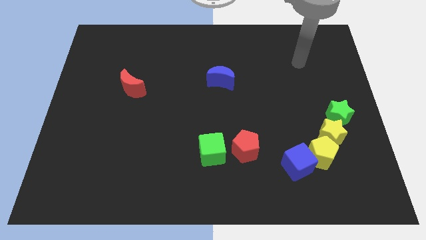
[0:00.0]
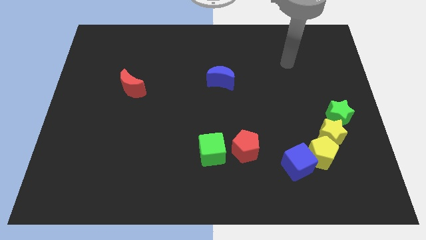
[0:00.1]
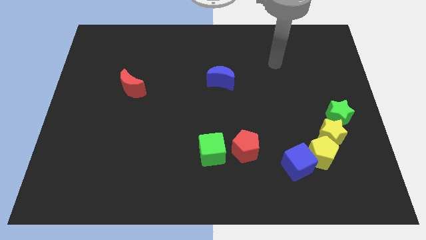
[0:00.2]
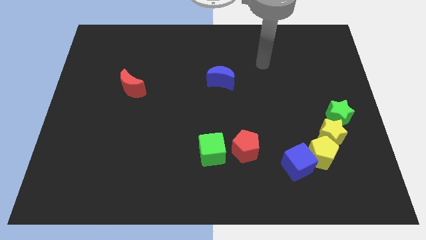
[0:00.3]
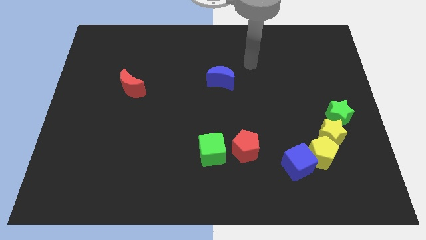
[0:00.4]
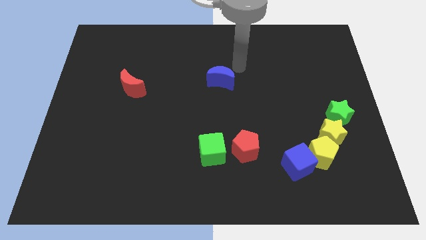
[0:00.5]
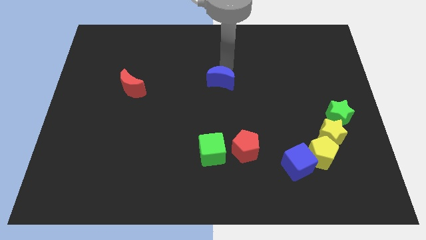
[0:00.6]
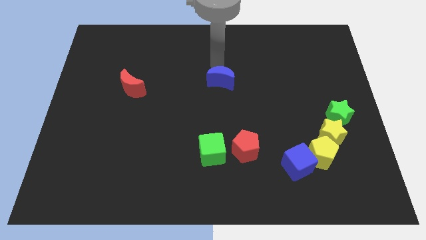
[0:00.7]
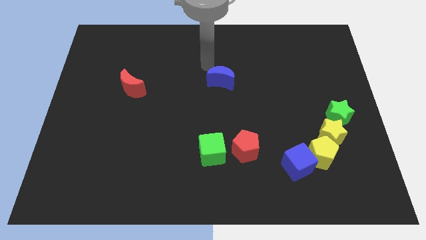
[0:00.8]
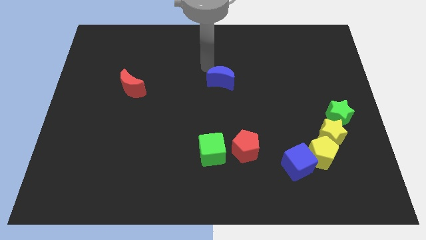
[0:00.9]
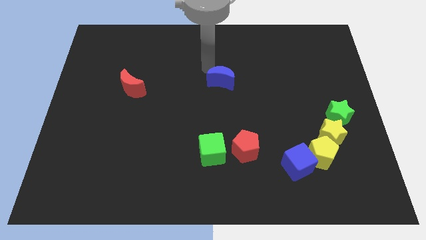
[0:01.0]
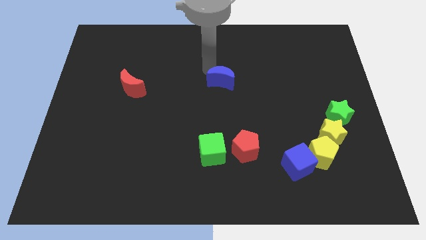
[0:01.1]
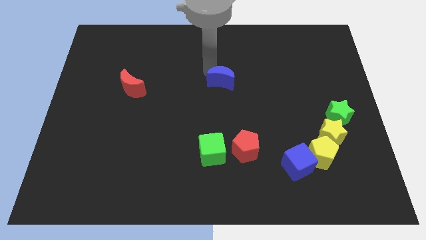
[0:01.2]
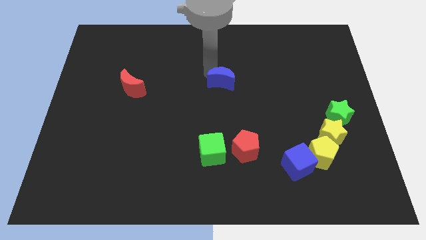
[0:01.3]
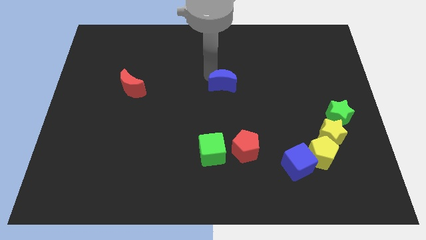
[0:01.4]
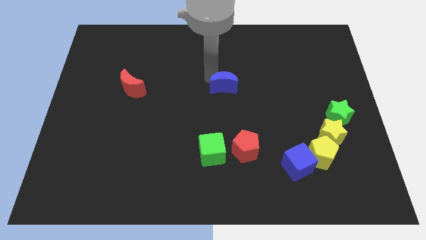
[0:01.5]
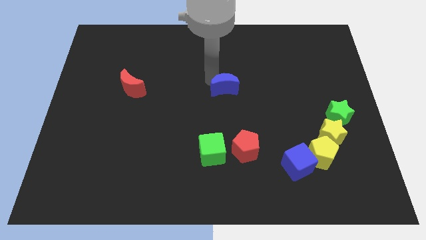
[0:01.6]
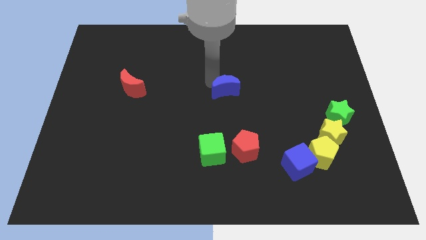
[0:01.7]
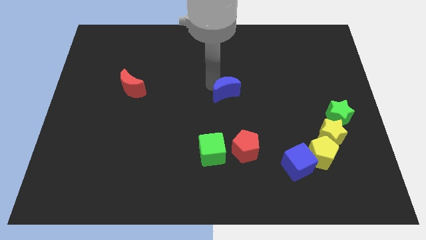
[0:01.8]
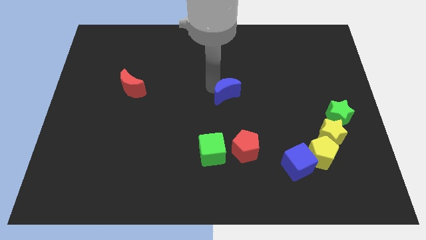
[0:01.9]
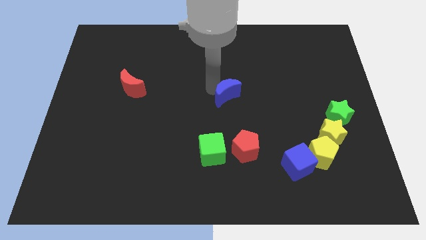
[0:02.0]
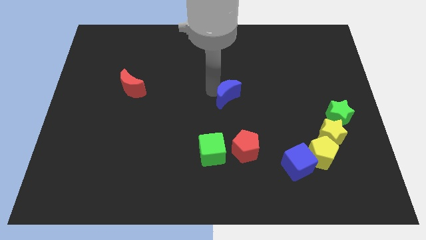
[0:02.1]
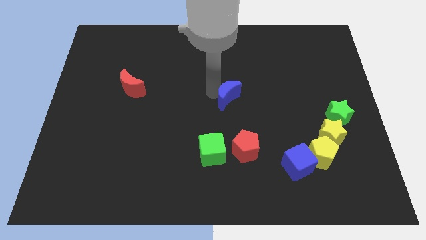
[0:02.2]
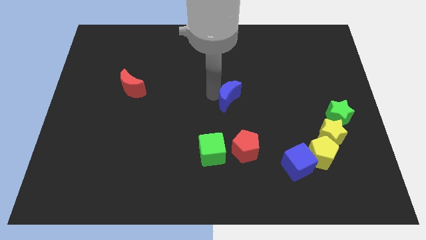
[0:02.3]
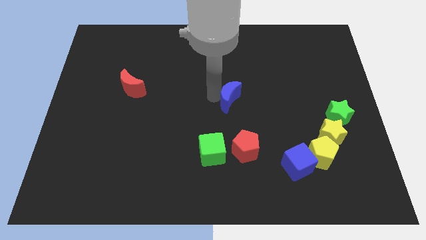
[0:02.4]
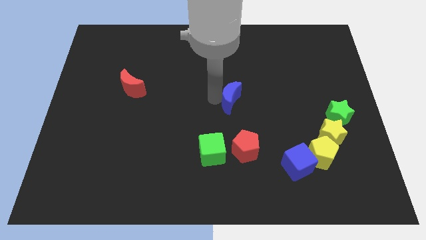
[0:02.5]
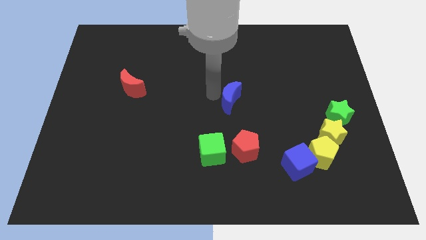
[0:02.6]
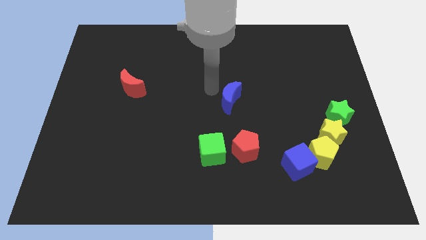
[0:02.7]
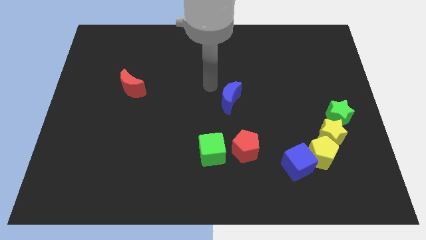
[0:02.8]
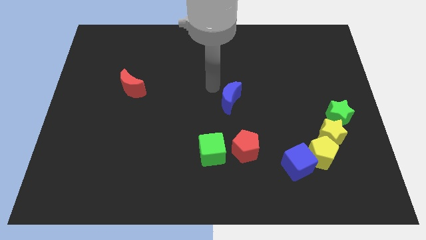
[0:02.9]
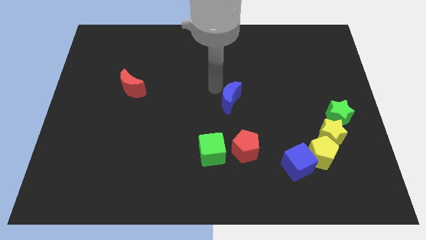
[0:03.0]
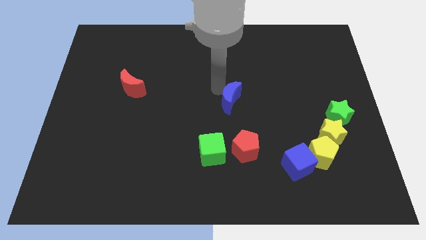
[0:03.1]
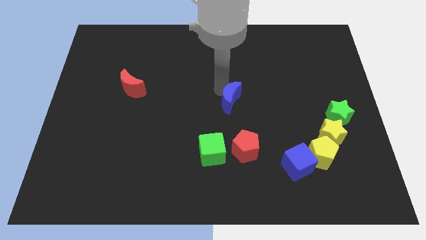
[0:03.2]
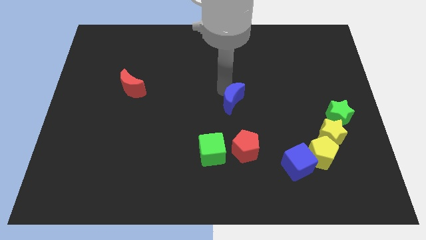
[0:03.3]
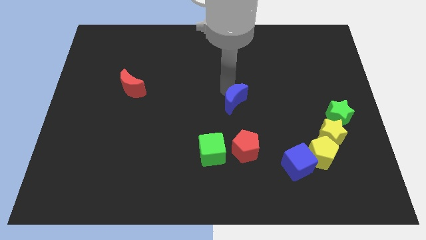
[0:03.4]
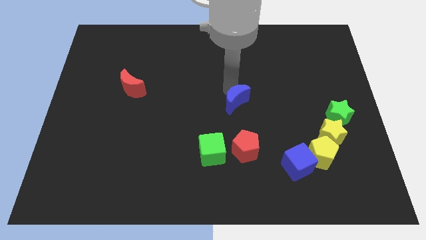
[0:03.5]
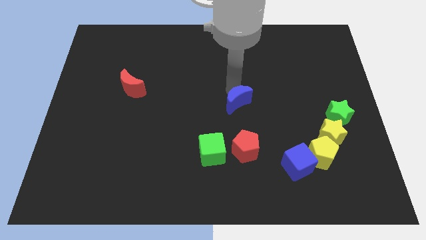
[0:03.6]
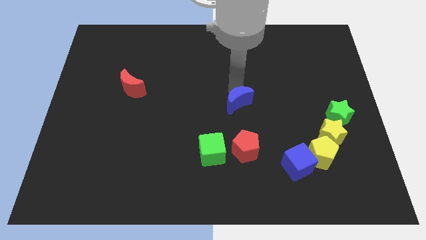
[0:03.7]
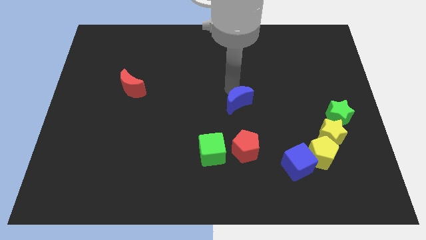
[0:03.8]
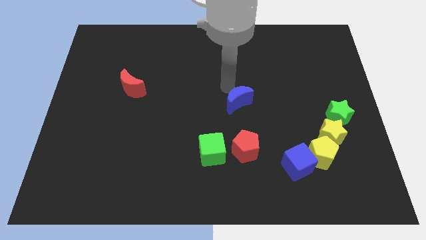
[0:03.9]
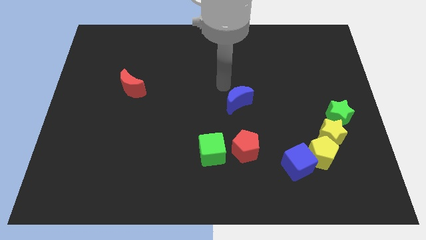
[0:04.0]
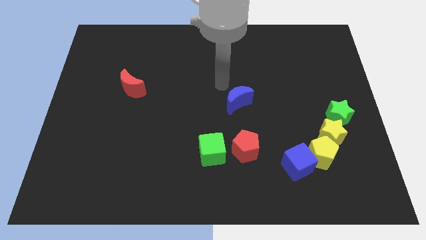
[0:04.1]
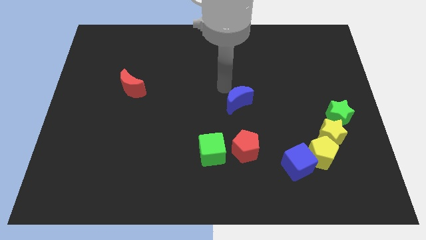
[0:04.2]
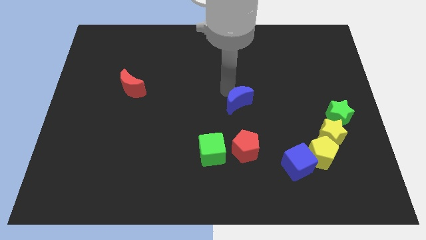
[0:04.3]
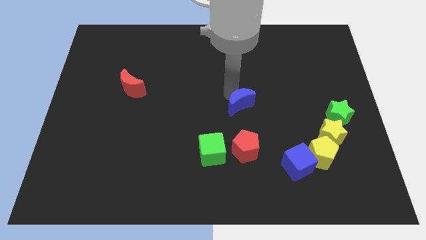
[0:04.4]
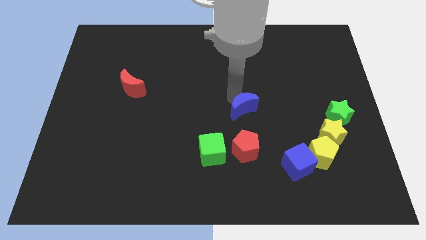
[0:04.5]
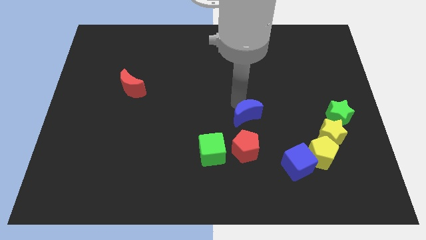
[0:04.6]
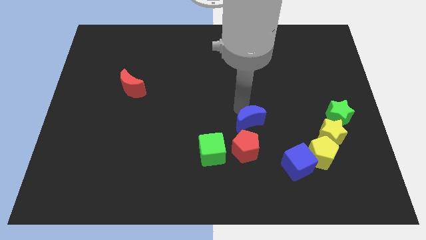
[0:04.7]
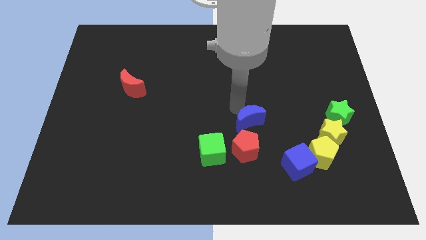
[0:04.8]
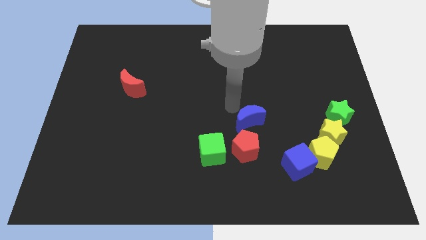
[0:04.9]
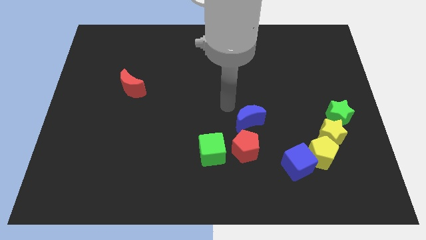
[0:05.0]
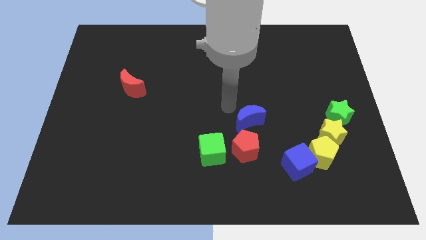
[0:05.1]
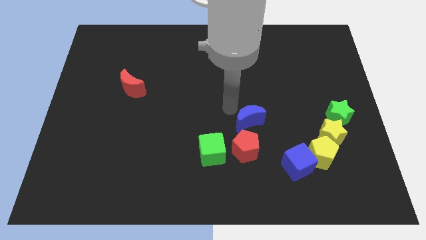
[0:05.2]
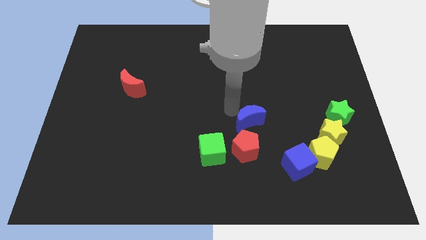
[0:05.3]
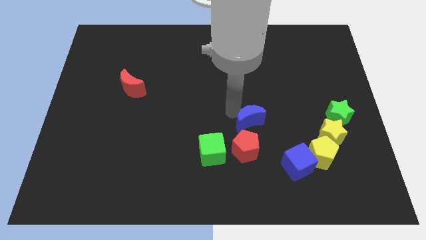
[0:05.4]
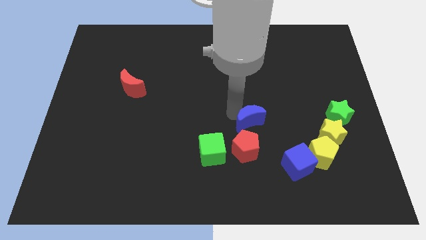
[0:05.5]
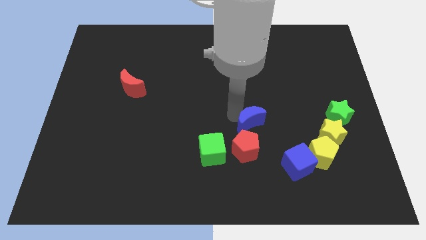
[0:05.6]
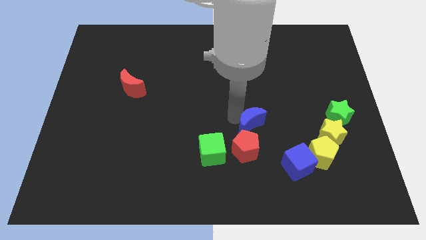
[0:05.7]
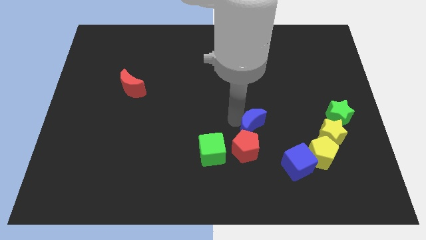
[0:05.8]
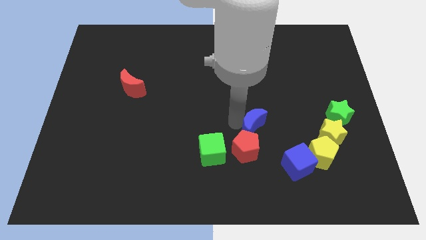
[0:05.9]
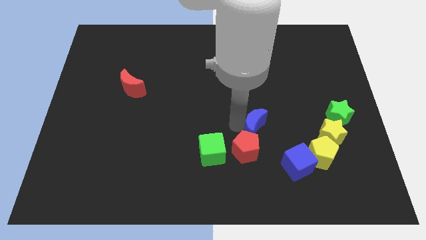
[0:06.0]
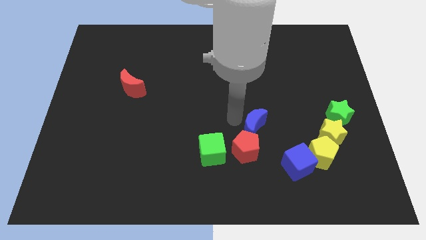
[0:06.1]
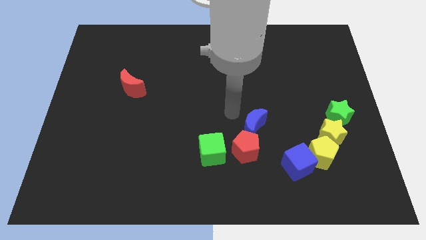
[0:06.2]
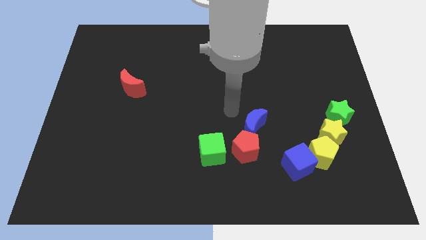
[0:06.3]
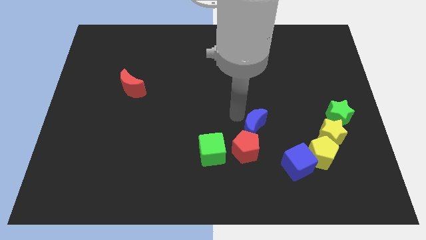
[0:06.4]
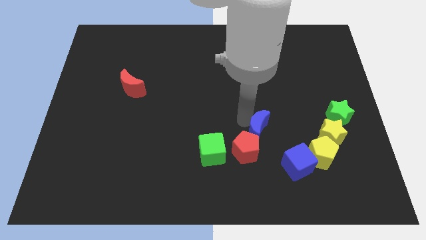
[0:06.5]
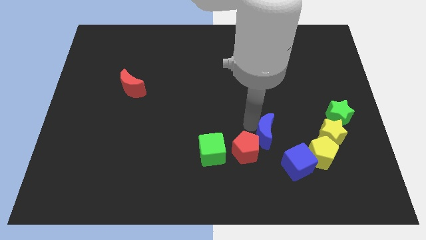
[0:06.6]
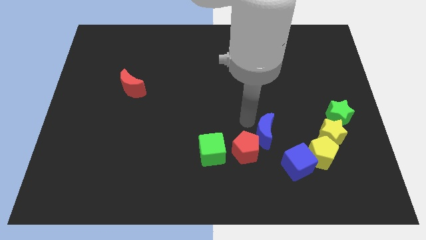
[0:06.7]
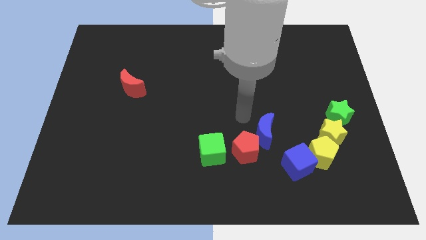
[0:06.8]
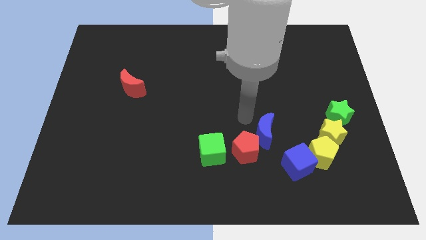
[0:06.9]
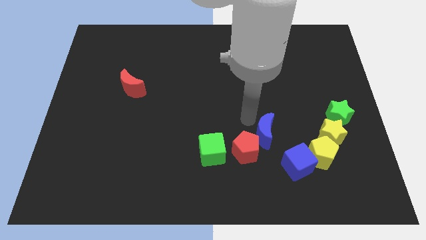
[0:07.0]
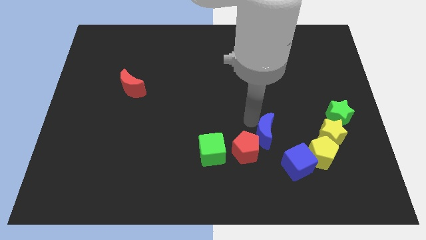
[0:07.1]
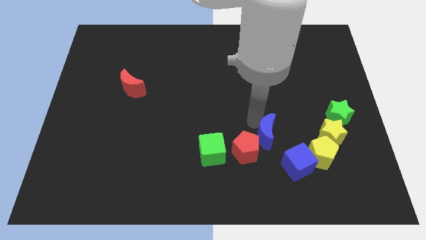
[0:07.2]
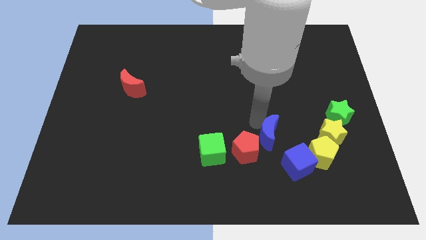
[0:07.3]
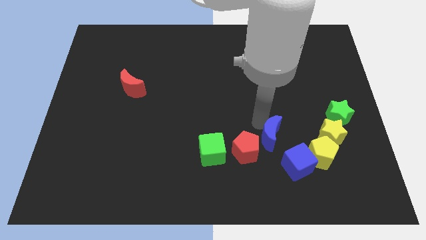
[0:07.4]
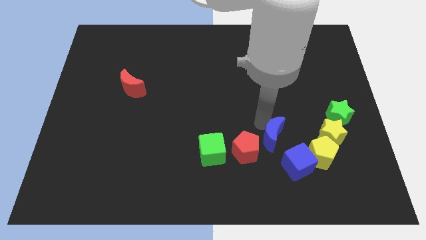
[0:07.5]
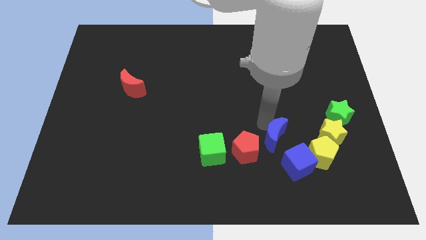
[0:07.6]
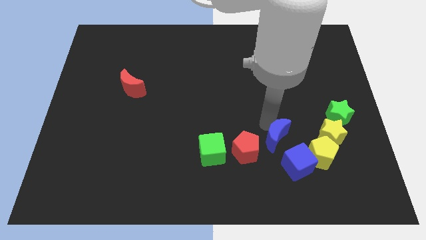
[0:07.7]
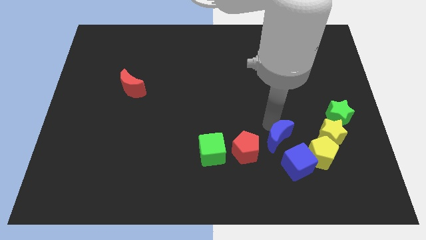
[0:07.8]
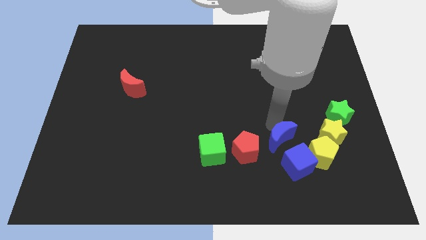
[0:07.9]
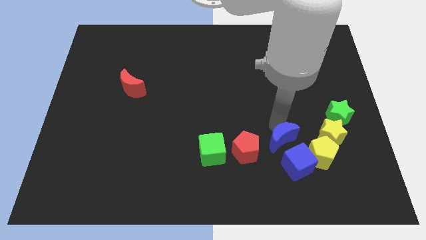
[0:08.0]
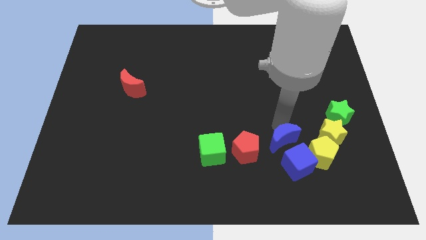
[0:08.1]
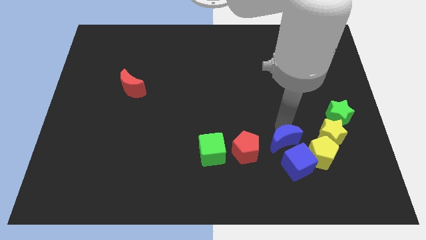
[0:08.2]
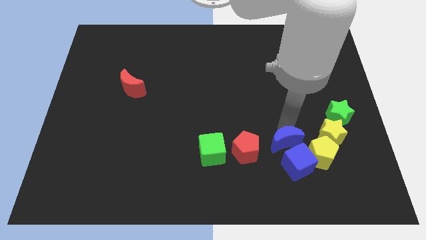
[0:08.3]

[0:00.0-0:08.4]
push the blue moon next to the blue cube
